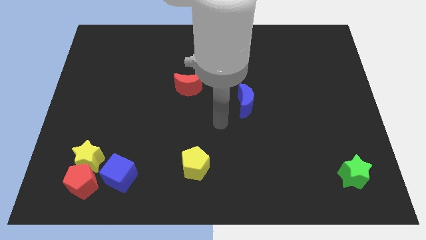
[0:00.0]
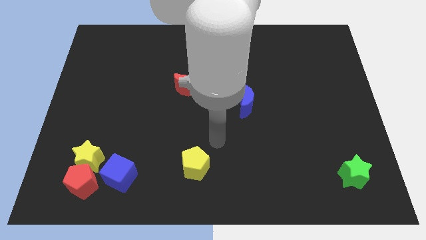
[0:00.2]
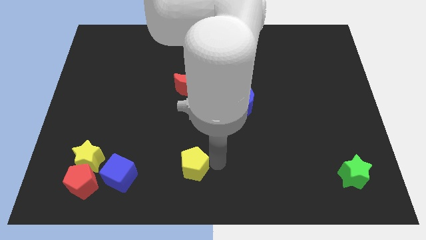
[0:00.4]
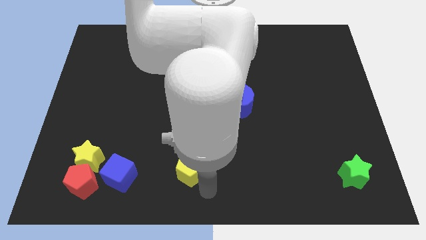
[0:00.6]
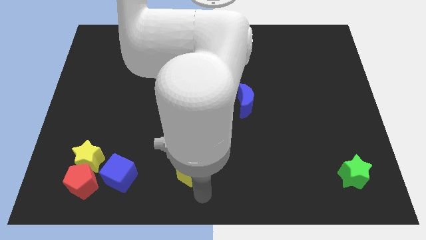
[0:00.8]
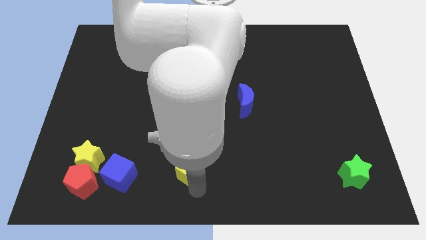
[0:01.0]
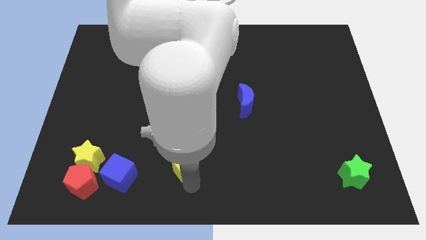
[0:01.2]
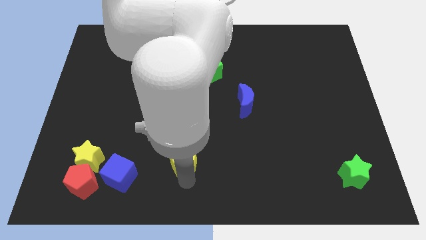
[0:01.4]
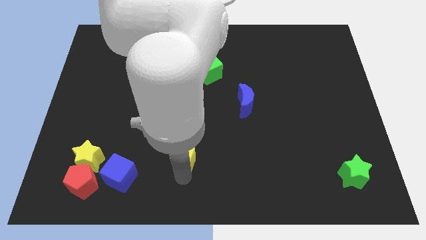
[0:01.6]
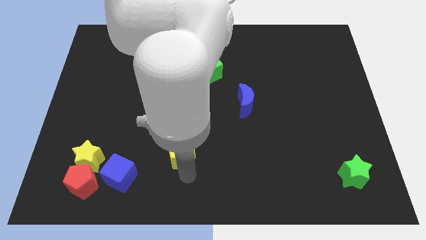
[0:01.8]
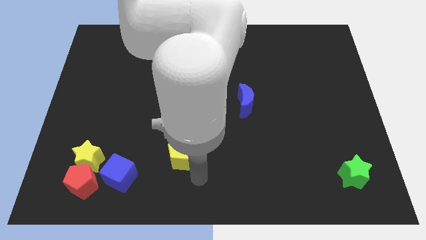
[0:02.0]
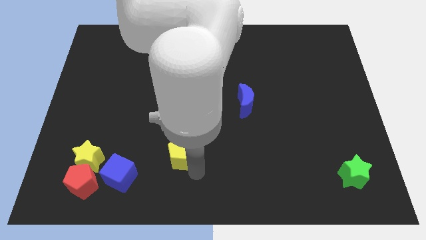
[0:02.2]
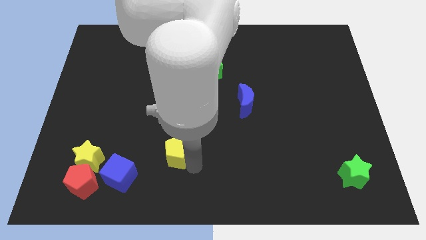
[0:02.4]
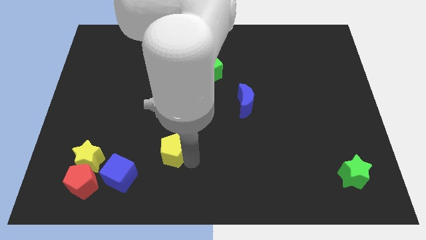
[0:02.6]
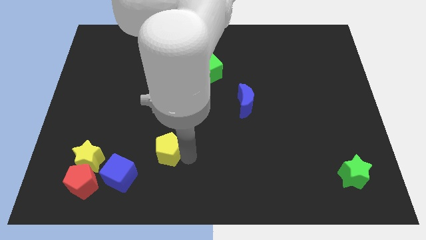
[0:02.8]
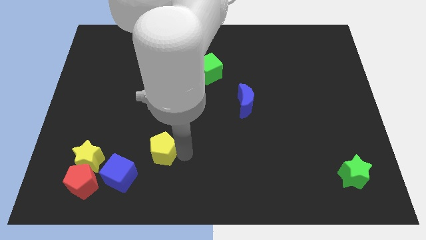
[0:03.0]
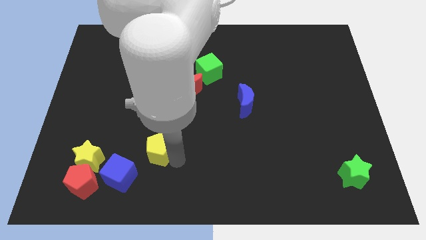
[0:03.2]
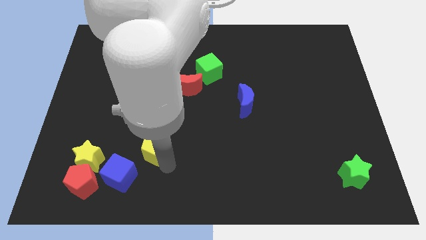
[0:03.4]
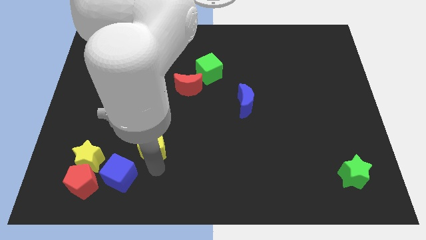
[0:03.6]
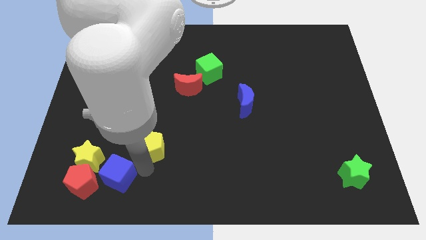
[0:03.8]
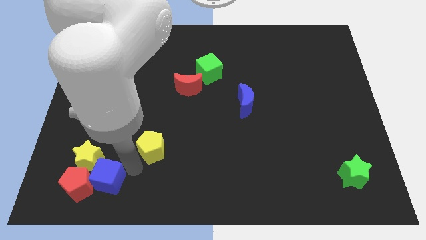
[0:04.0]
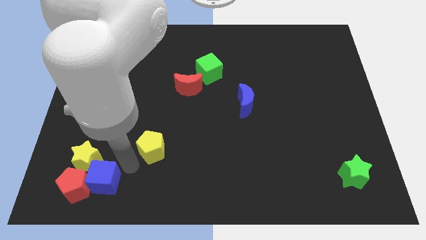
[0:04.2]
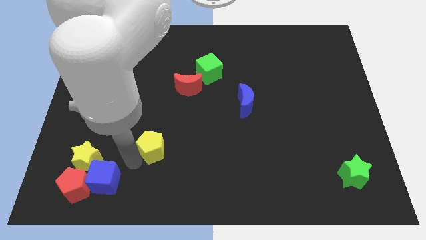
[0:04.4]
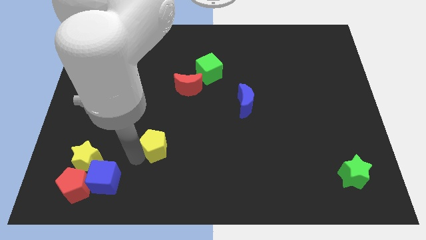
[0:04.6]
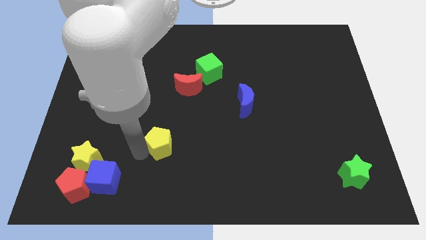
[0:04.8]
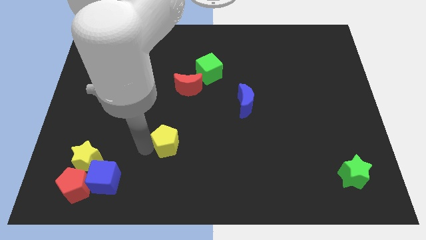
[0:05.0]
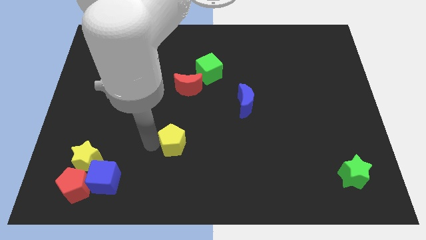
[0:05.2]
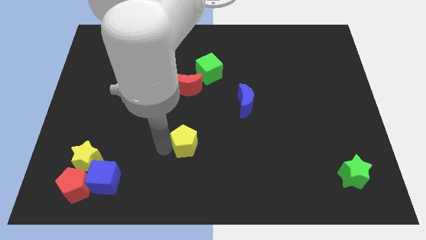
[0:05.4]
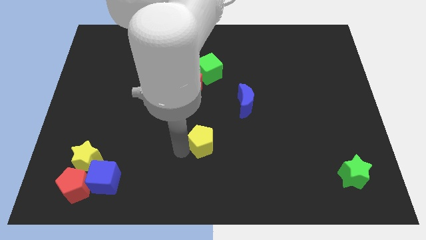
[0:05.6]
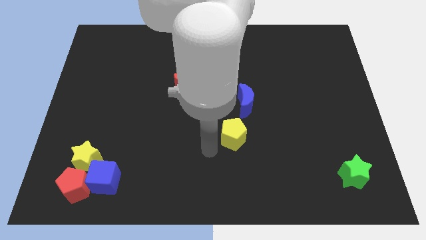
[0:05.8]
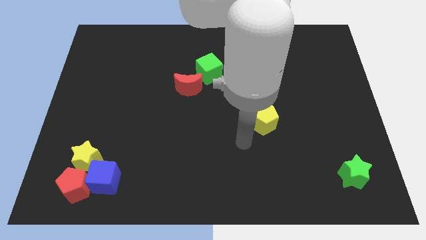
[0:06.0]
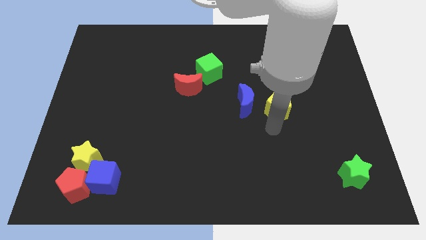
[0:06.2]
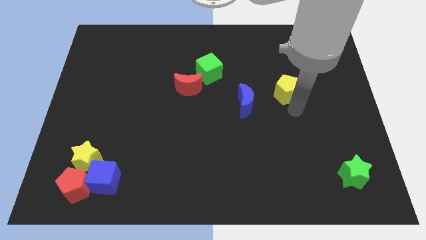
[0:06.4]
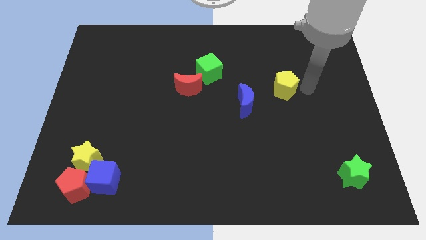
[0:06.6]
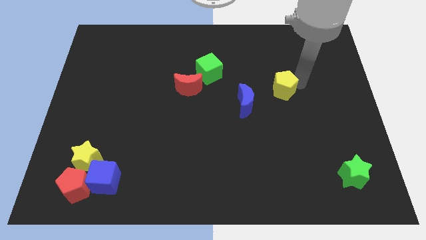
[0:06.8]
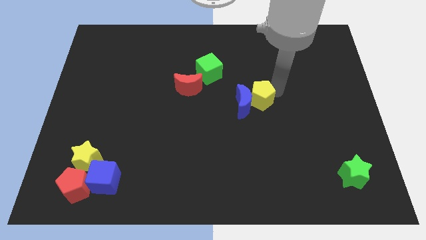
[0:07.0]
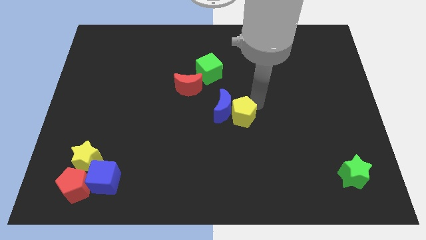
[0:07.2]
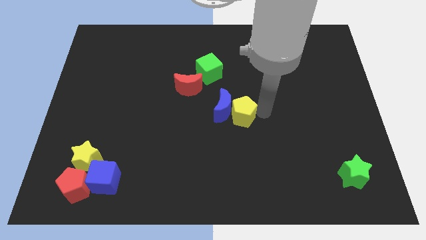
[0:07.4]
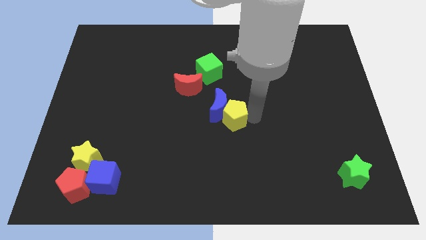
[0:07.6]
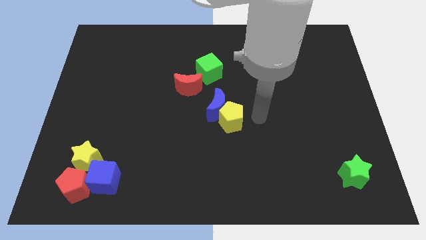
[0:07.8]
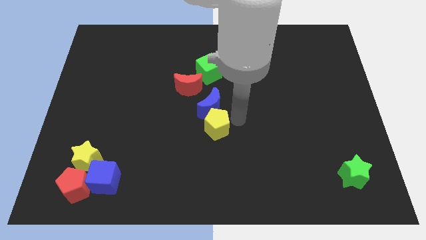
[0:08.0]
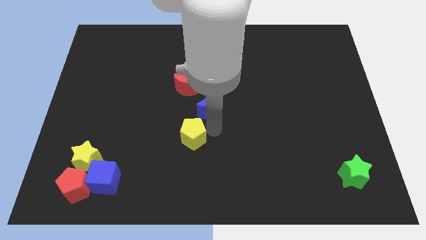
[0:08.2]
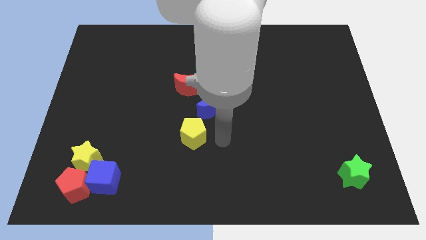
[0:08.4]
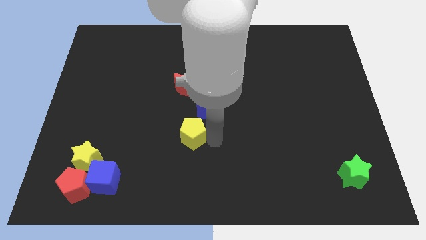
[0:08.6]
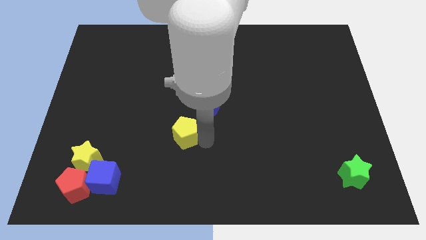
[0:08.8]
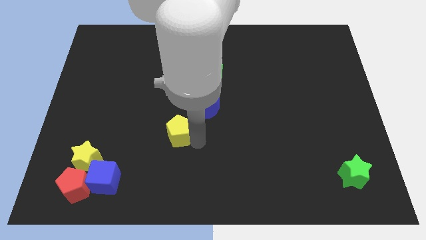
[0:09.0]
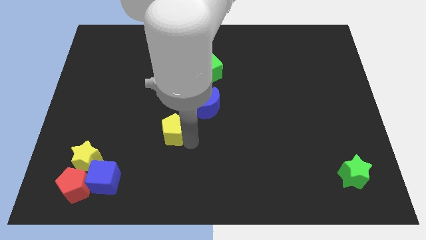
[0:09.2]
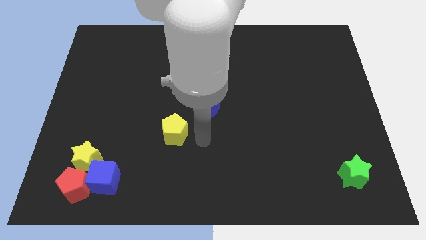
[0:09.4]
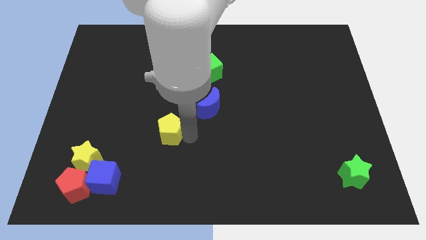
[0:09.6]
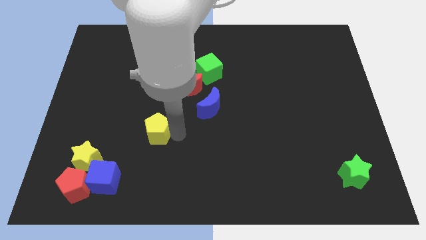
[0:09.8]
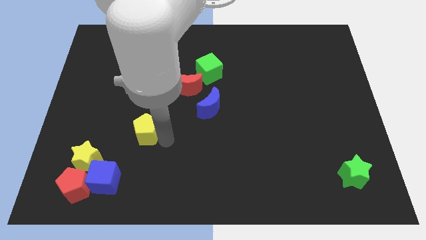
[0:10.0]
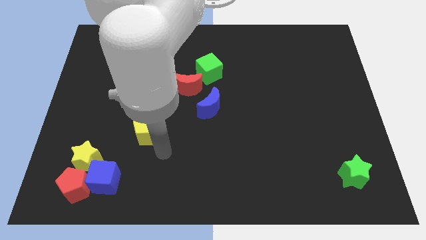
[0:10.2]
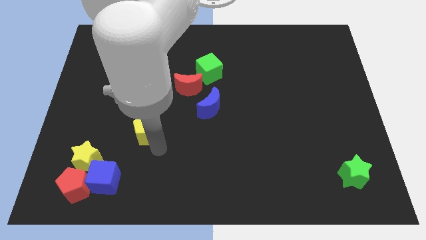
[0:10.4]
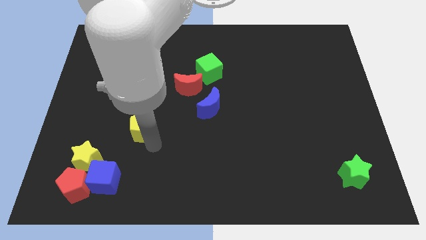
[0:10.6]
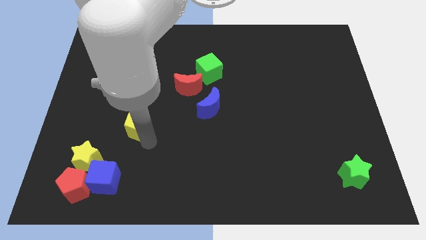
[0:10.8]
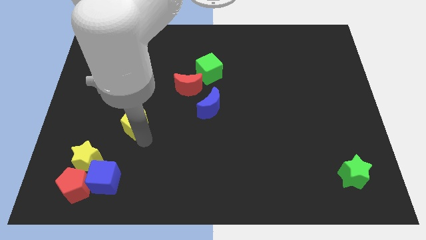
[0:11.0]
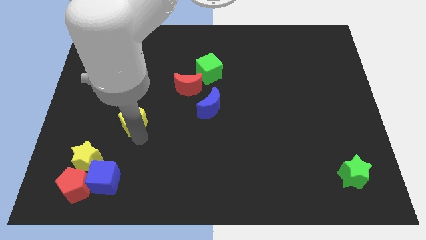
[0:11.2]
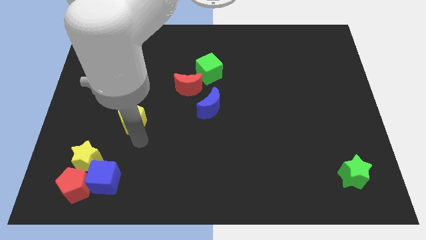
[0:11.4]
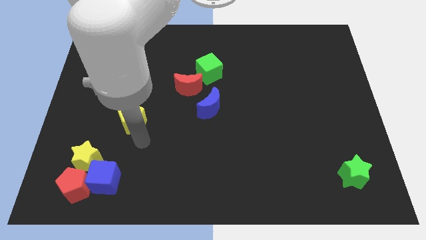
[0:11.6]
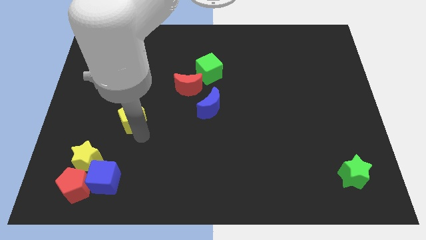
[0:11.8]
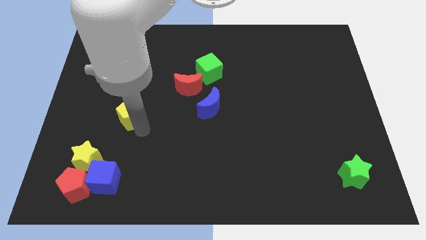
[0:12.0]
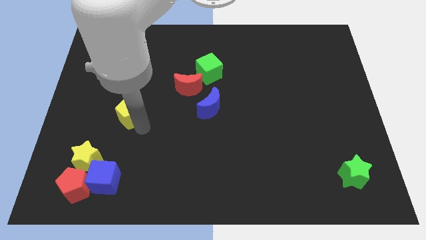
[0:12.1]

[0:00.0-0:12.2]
slide the yellow pentagon up and then to the left

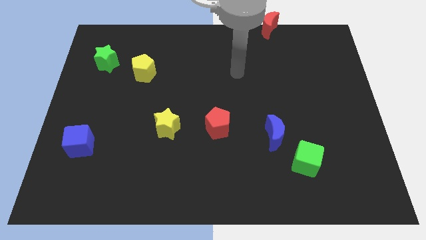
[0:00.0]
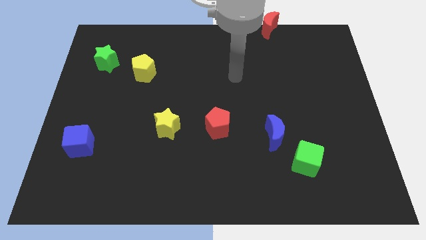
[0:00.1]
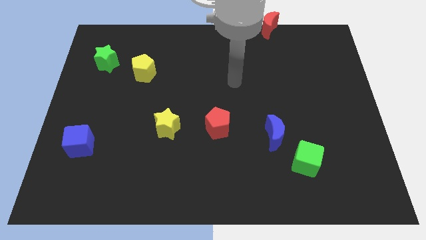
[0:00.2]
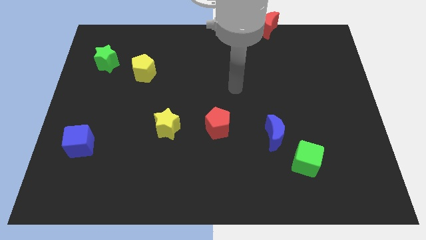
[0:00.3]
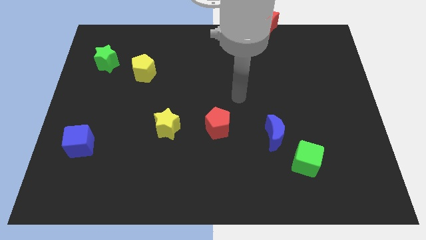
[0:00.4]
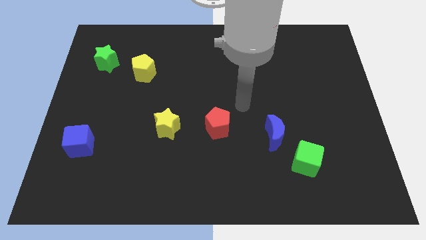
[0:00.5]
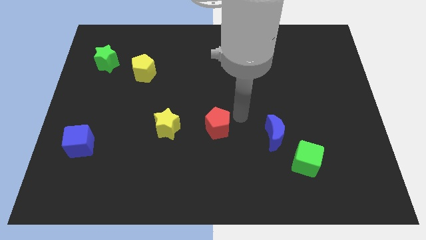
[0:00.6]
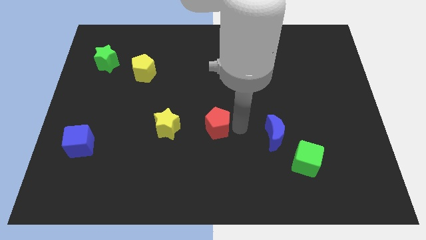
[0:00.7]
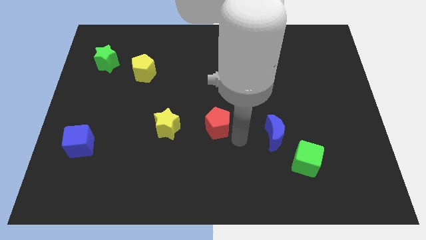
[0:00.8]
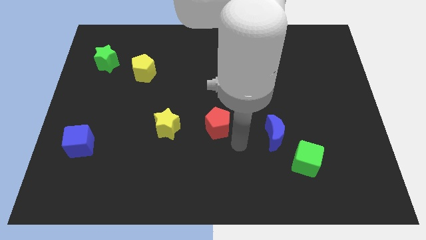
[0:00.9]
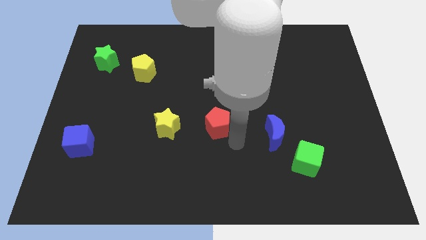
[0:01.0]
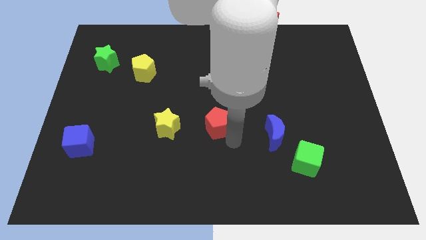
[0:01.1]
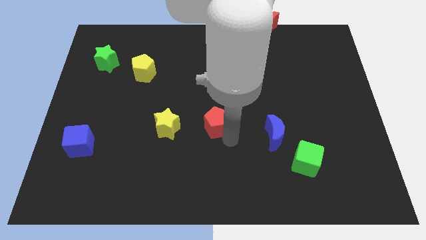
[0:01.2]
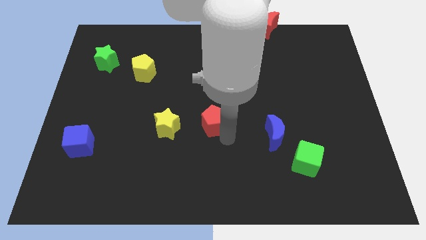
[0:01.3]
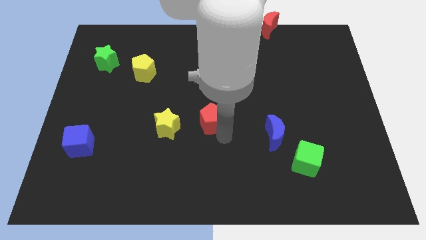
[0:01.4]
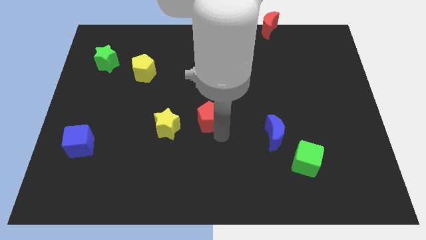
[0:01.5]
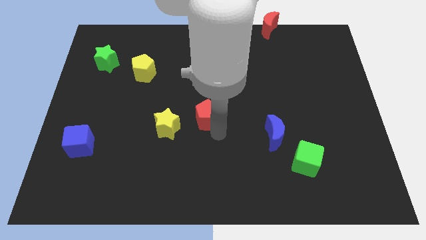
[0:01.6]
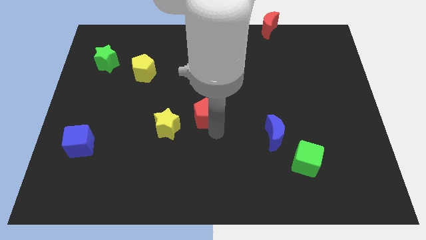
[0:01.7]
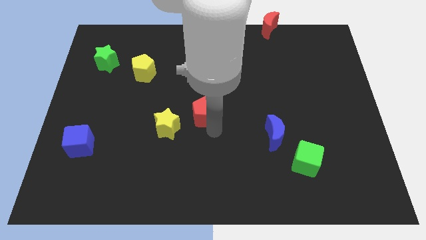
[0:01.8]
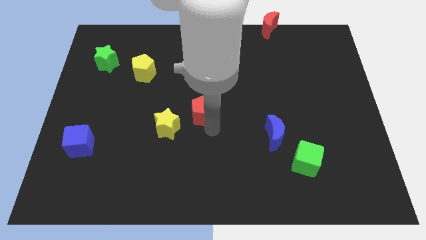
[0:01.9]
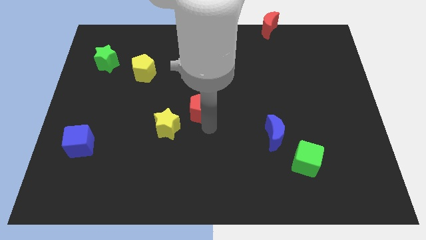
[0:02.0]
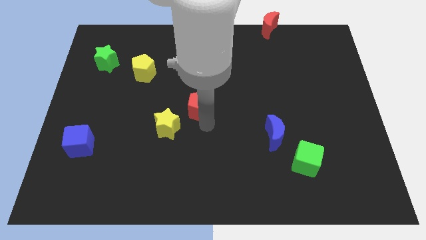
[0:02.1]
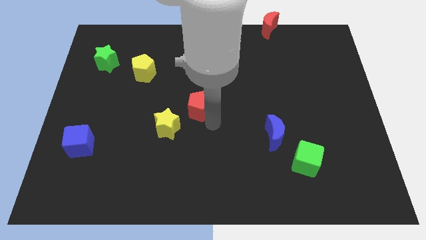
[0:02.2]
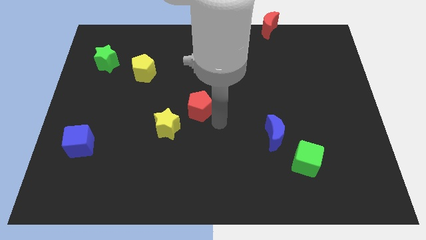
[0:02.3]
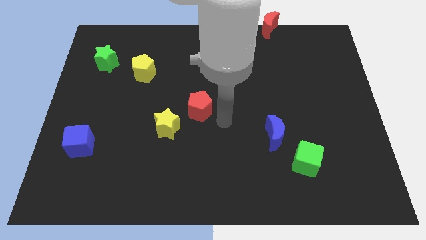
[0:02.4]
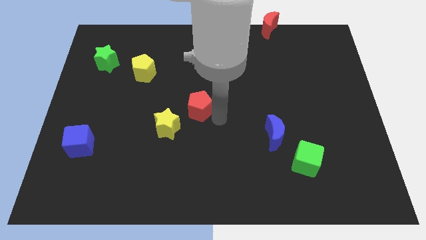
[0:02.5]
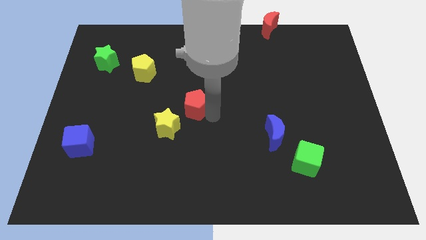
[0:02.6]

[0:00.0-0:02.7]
slide the red pentagon upwards and then to the left a bit
